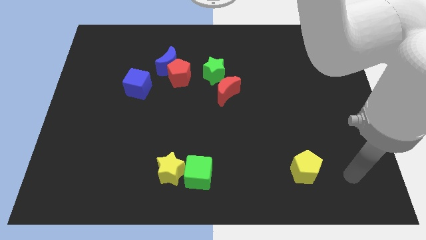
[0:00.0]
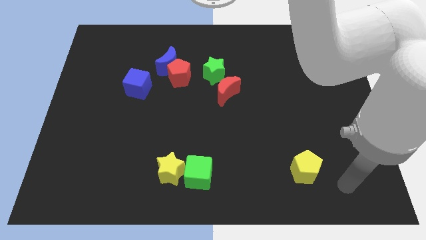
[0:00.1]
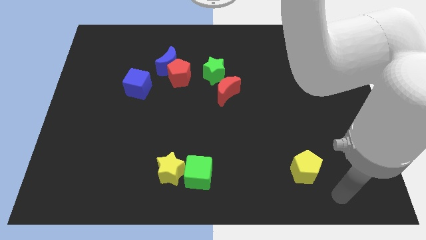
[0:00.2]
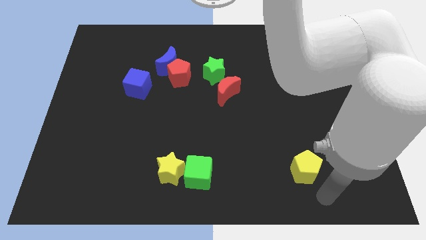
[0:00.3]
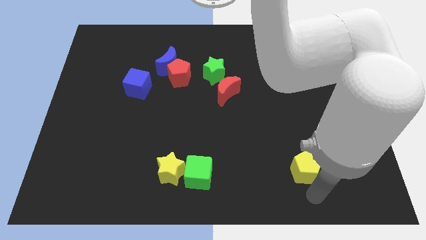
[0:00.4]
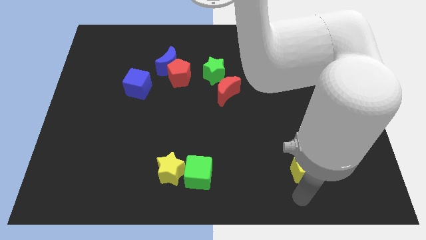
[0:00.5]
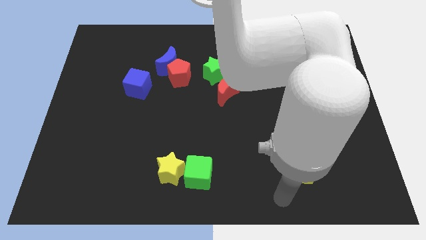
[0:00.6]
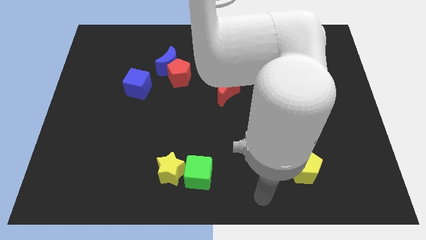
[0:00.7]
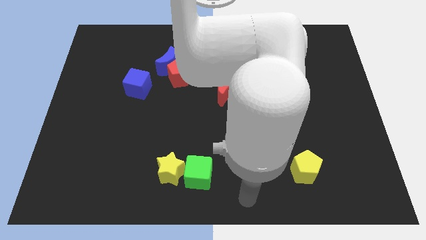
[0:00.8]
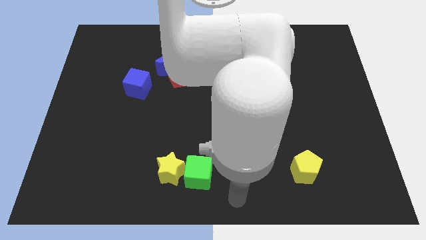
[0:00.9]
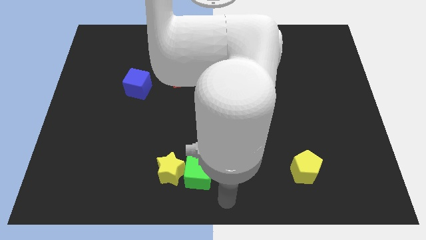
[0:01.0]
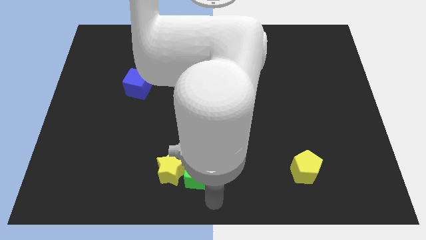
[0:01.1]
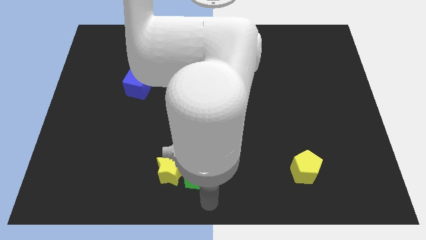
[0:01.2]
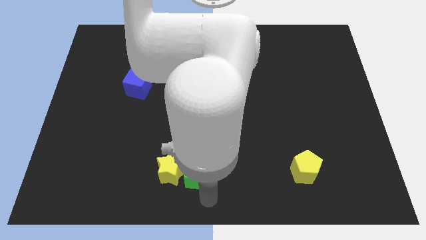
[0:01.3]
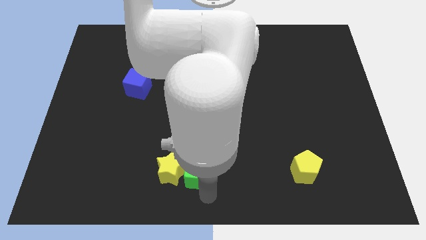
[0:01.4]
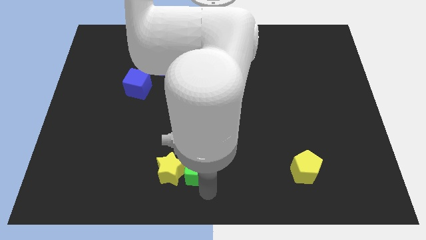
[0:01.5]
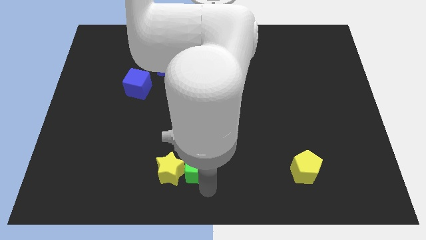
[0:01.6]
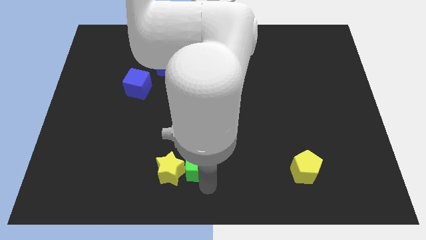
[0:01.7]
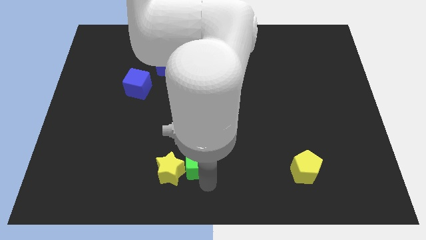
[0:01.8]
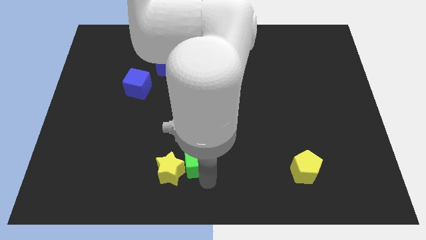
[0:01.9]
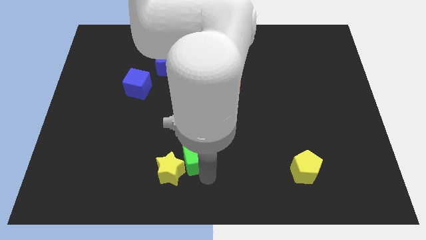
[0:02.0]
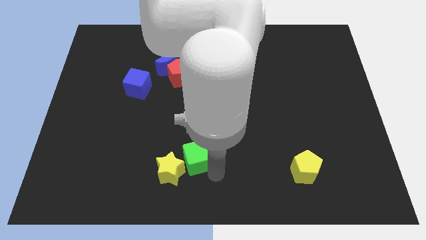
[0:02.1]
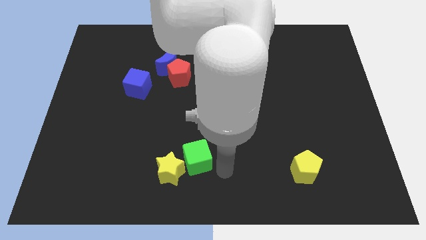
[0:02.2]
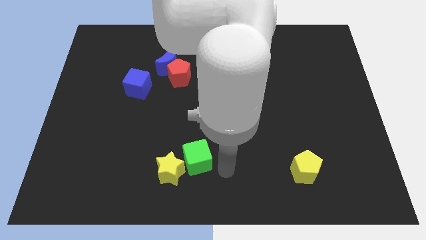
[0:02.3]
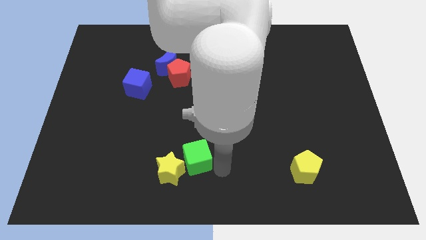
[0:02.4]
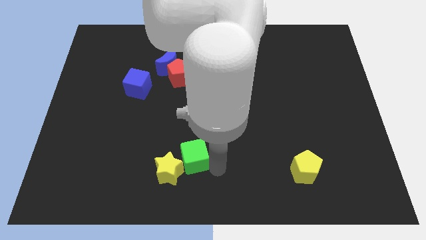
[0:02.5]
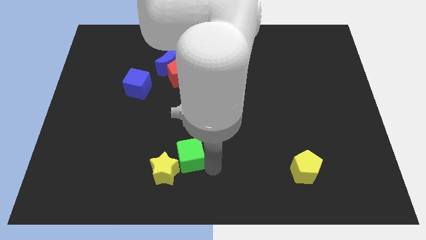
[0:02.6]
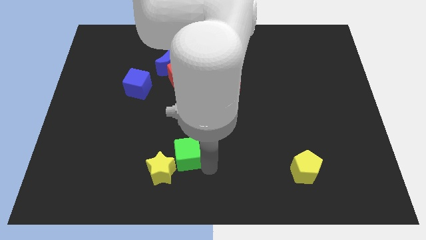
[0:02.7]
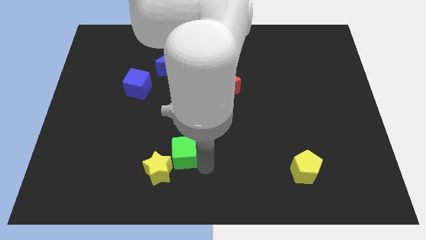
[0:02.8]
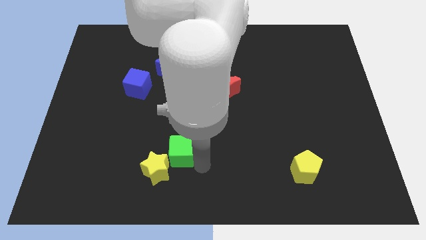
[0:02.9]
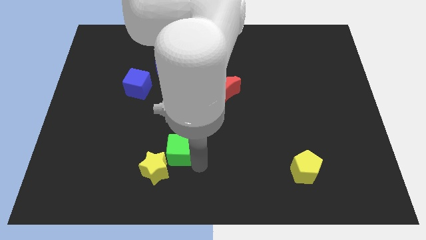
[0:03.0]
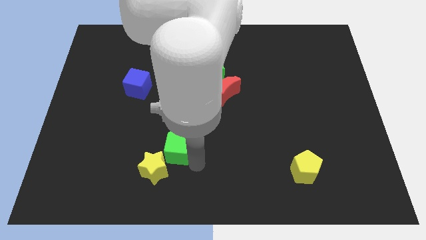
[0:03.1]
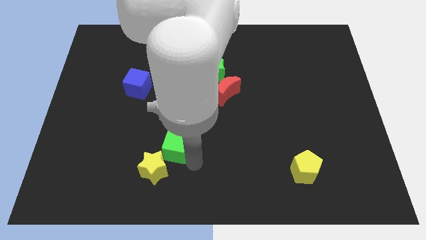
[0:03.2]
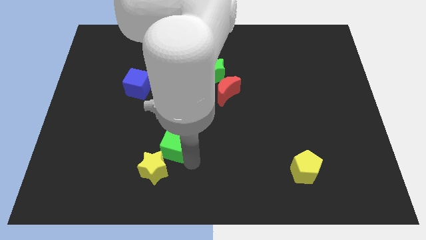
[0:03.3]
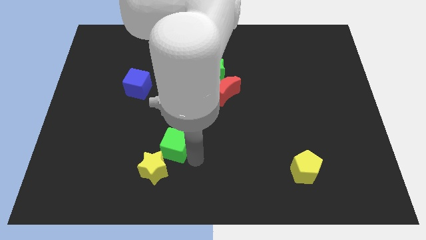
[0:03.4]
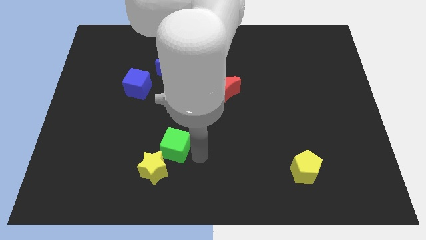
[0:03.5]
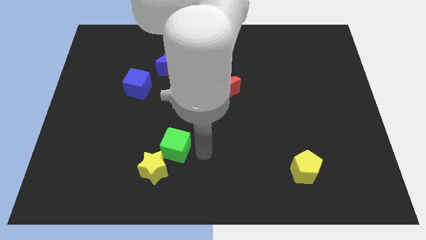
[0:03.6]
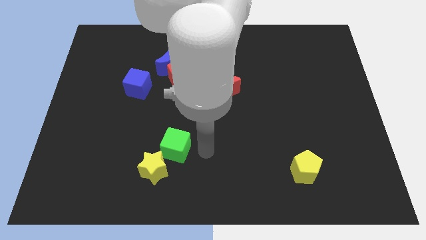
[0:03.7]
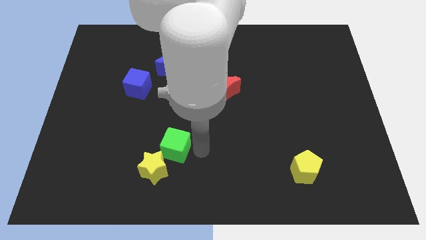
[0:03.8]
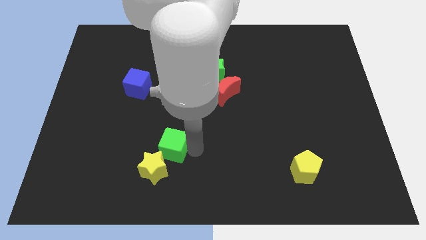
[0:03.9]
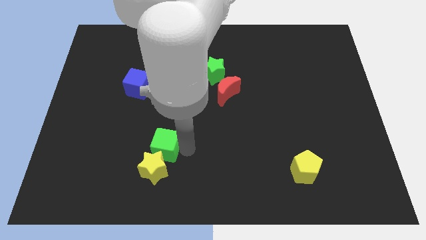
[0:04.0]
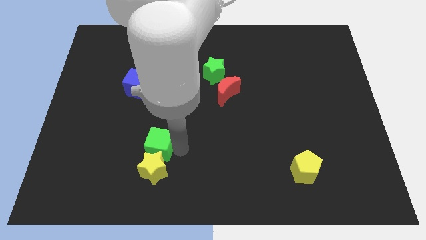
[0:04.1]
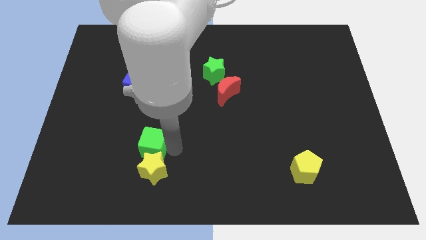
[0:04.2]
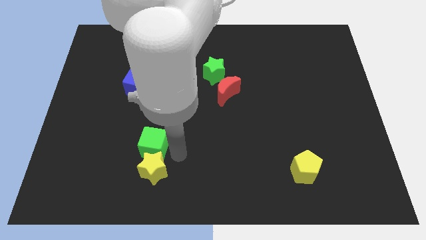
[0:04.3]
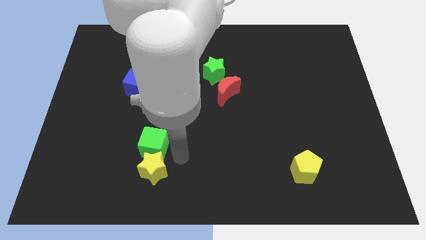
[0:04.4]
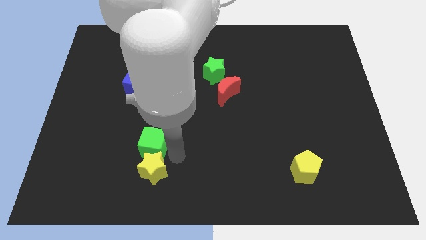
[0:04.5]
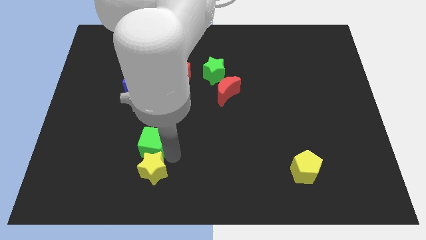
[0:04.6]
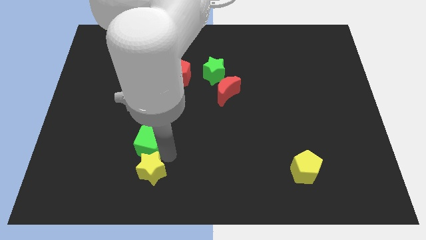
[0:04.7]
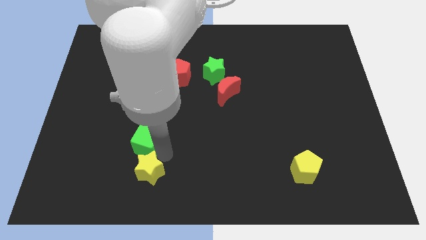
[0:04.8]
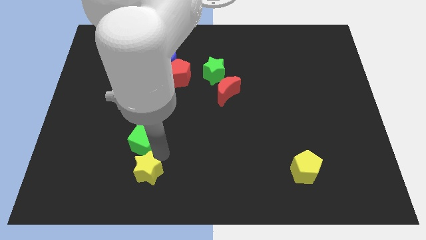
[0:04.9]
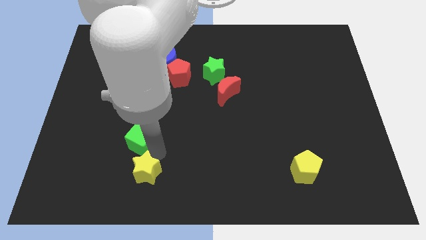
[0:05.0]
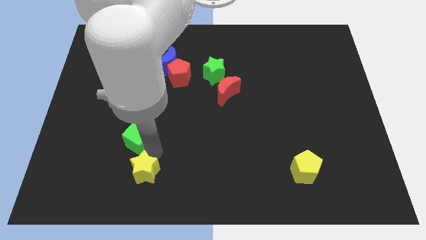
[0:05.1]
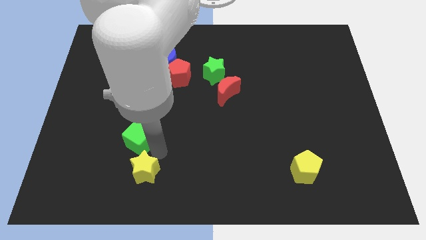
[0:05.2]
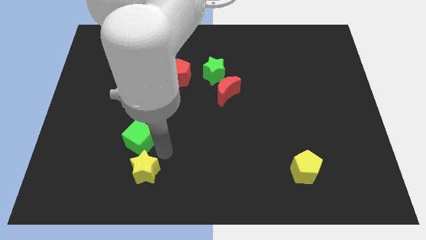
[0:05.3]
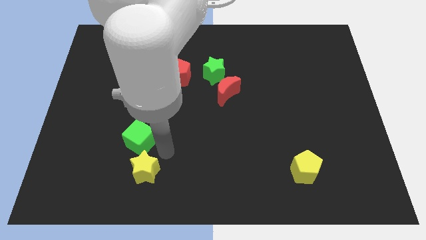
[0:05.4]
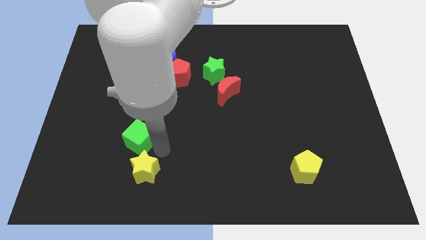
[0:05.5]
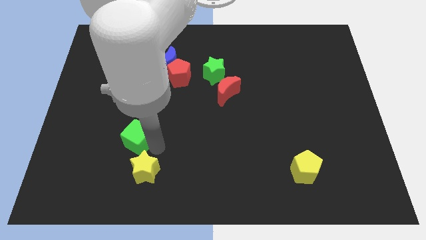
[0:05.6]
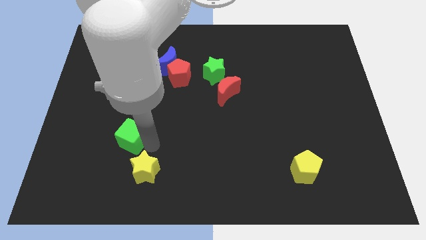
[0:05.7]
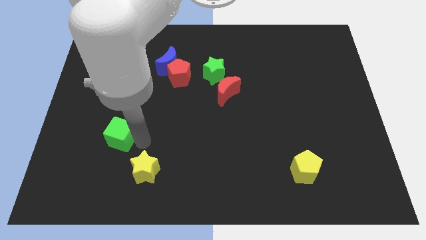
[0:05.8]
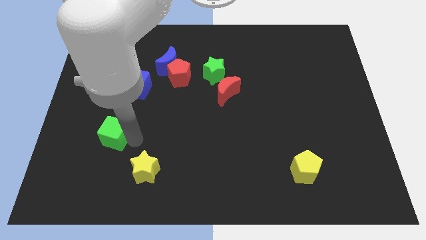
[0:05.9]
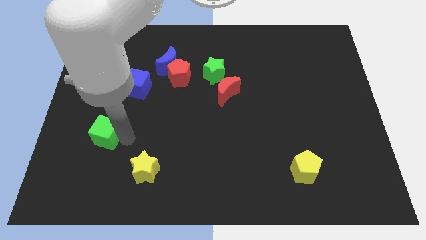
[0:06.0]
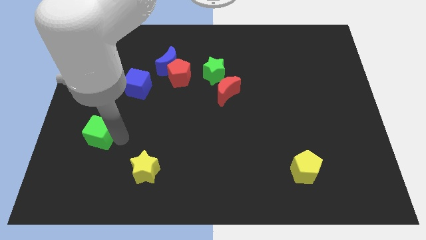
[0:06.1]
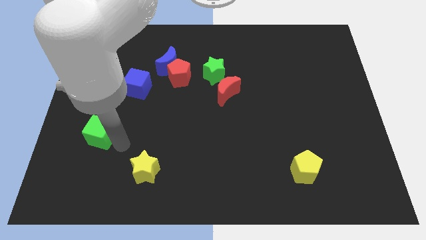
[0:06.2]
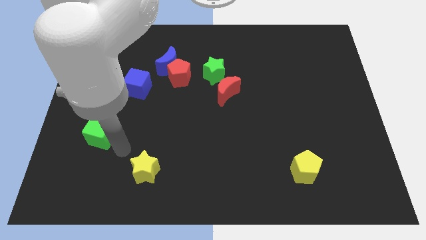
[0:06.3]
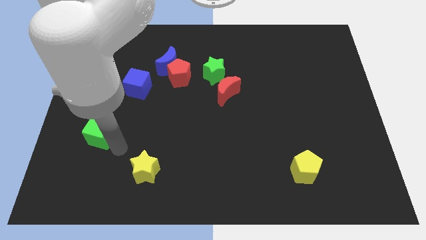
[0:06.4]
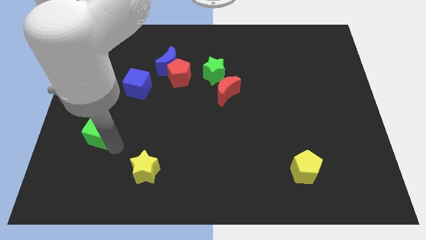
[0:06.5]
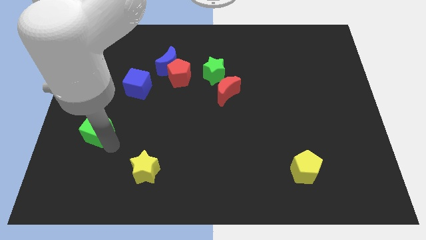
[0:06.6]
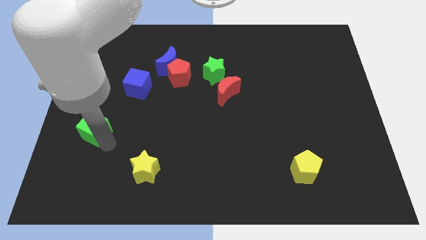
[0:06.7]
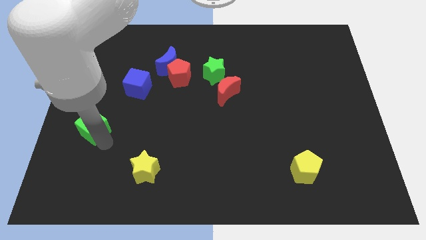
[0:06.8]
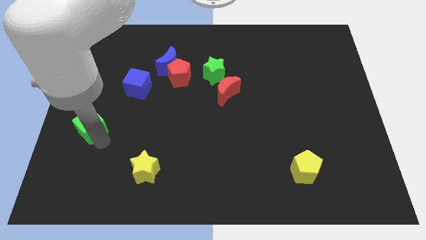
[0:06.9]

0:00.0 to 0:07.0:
put the green cube to the left side
